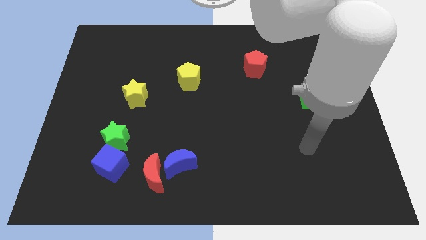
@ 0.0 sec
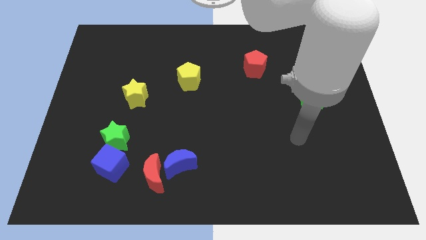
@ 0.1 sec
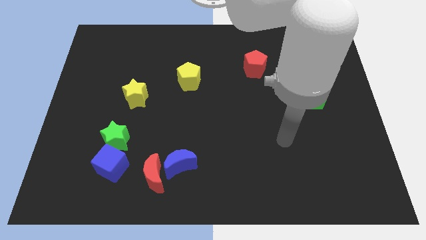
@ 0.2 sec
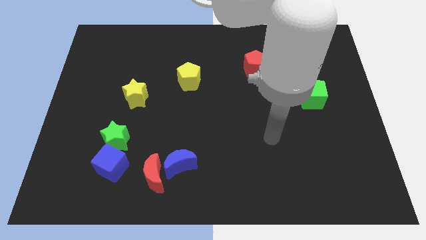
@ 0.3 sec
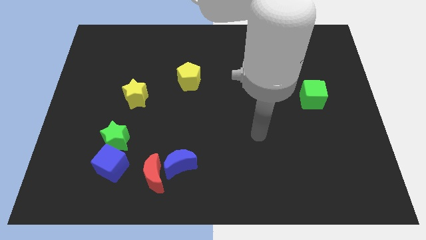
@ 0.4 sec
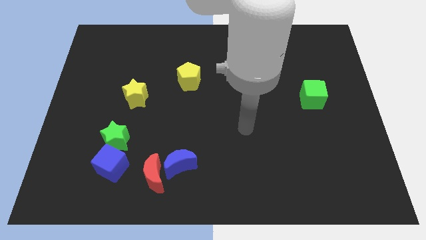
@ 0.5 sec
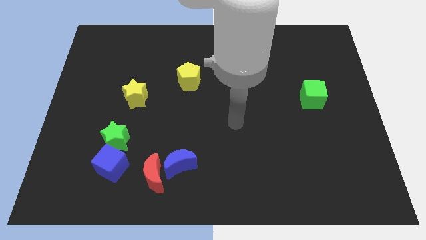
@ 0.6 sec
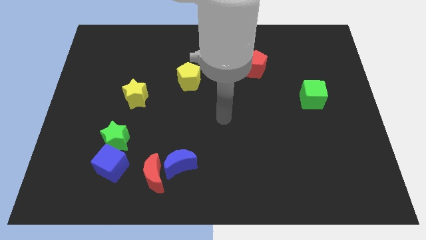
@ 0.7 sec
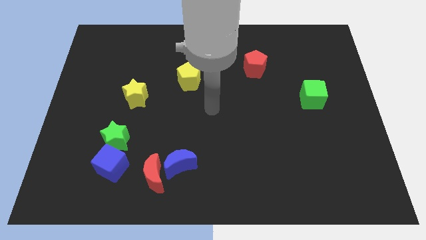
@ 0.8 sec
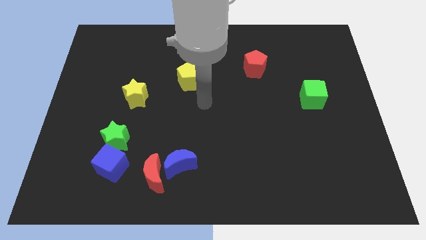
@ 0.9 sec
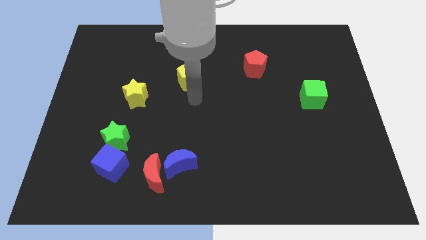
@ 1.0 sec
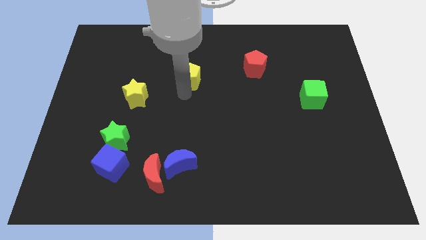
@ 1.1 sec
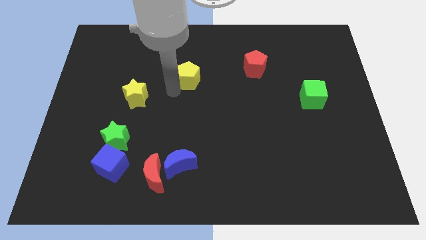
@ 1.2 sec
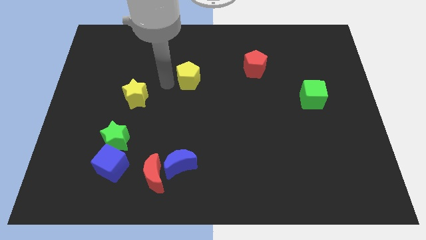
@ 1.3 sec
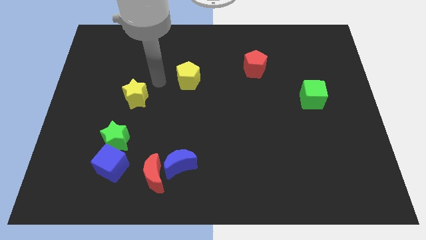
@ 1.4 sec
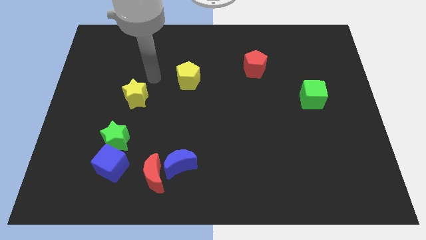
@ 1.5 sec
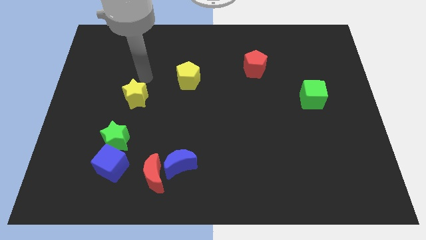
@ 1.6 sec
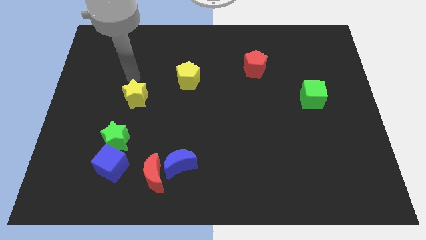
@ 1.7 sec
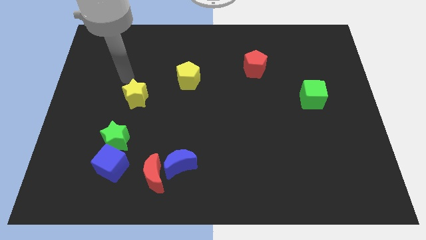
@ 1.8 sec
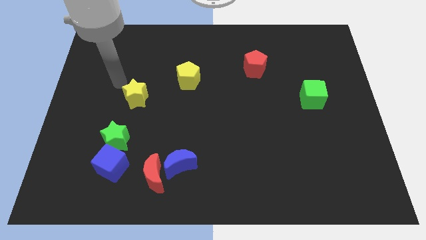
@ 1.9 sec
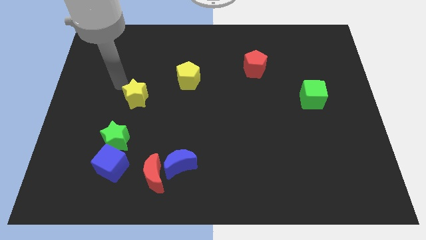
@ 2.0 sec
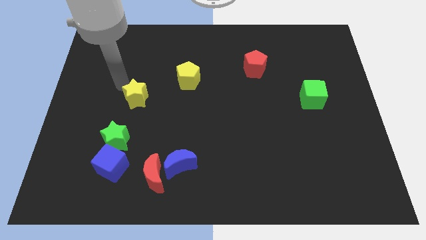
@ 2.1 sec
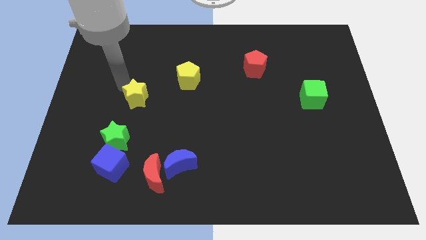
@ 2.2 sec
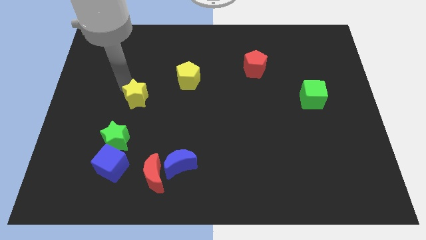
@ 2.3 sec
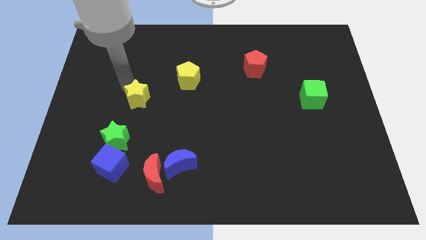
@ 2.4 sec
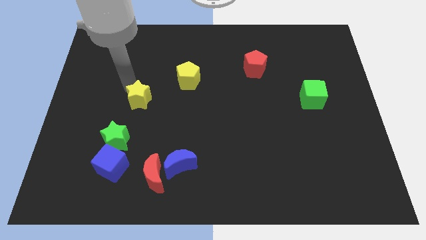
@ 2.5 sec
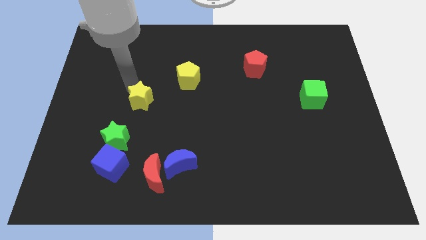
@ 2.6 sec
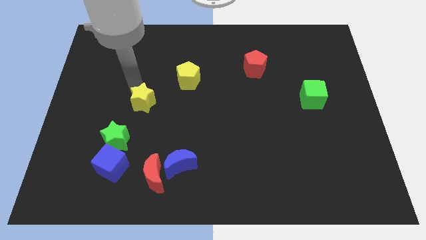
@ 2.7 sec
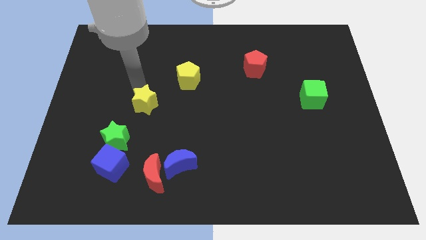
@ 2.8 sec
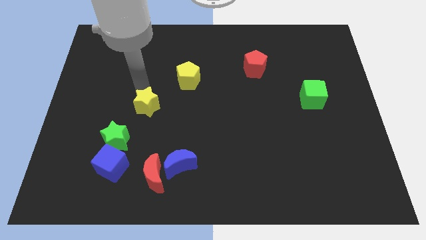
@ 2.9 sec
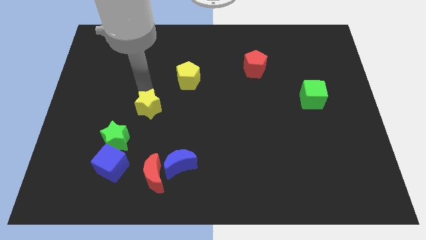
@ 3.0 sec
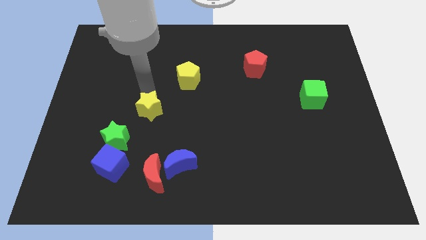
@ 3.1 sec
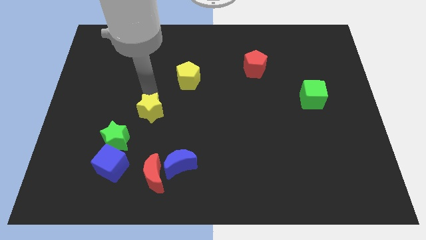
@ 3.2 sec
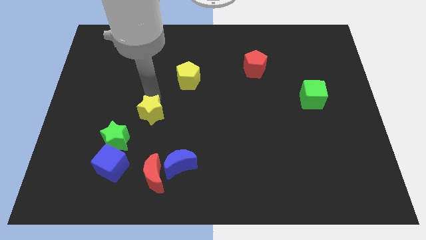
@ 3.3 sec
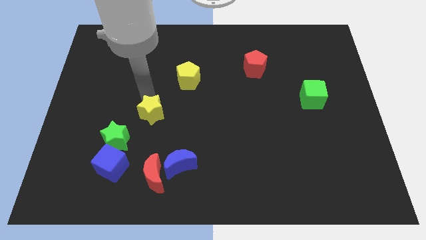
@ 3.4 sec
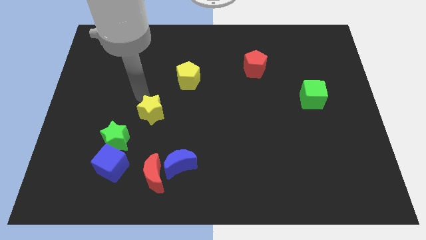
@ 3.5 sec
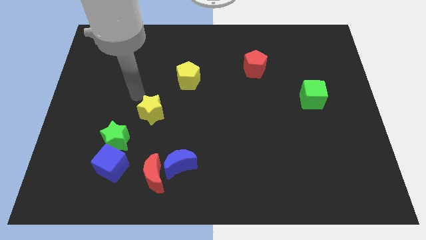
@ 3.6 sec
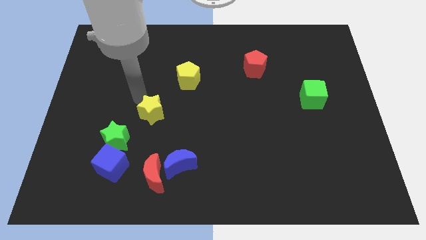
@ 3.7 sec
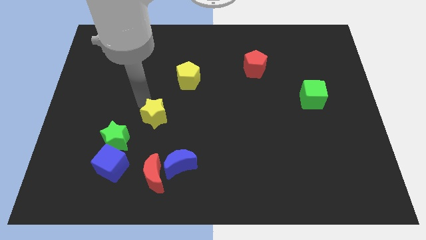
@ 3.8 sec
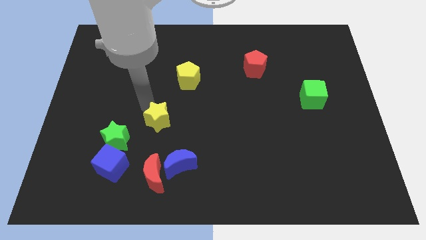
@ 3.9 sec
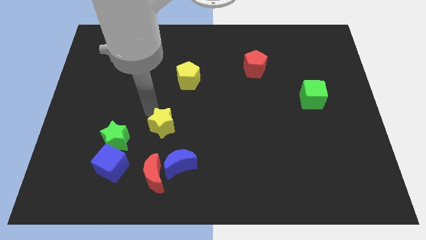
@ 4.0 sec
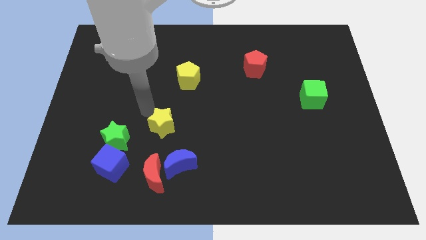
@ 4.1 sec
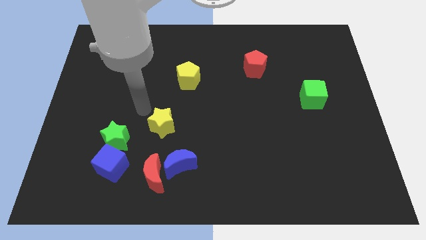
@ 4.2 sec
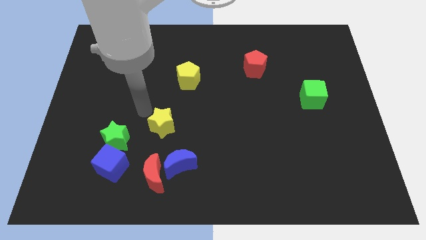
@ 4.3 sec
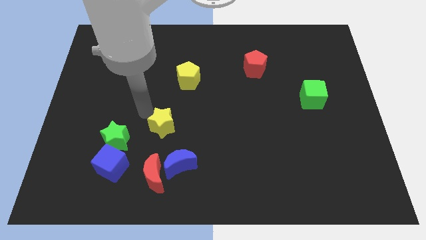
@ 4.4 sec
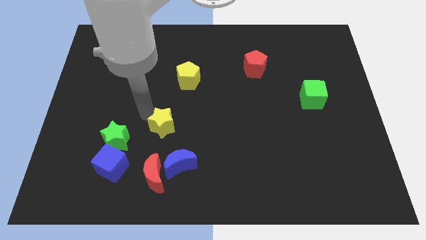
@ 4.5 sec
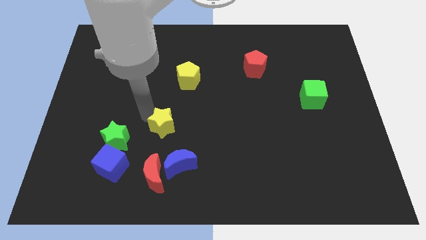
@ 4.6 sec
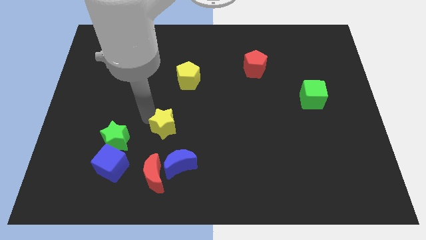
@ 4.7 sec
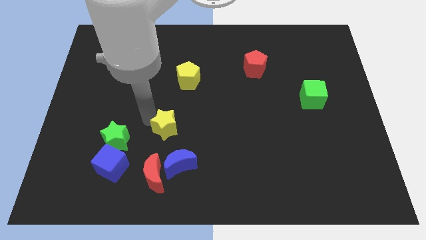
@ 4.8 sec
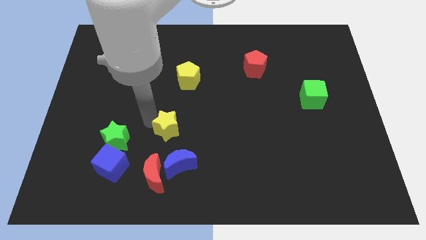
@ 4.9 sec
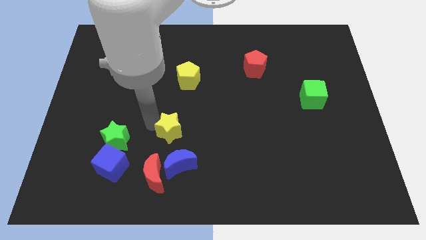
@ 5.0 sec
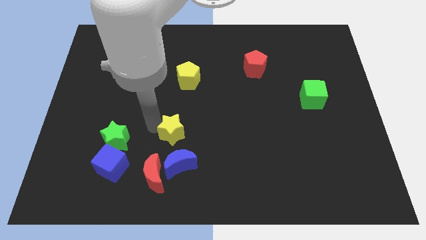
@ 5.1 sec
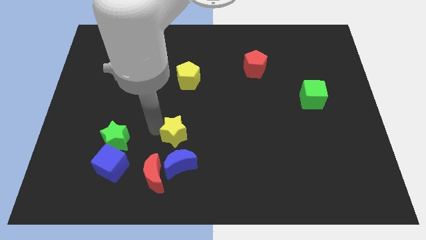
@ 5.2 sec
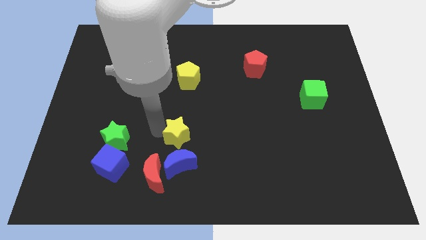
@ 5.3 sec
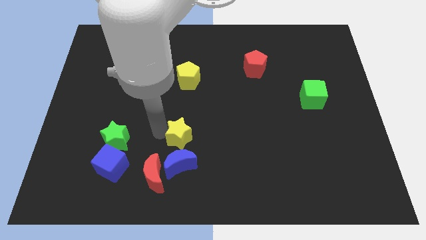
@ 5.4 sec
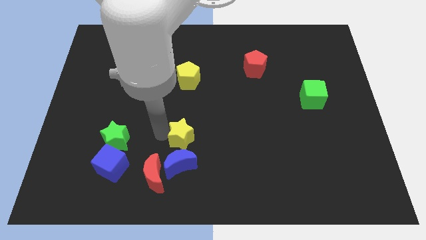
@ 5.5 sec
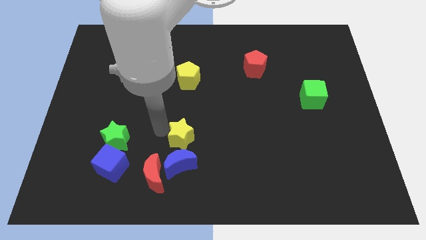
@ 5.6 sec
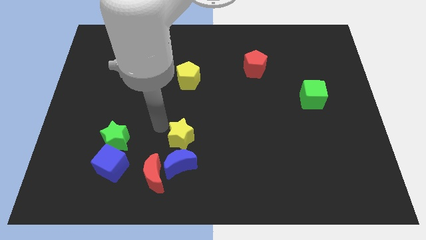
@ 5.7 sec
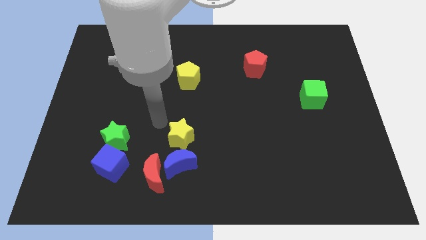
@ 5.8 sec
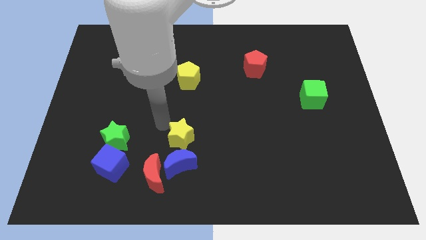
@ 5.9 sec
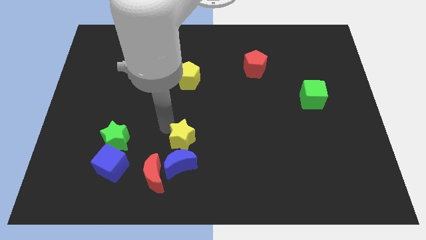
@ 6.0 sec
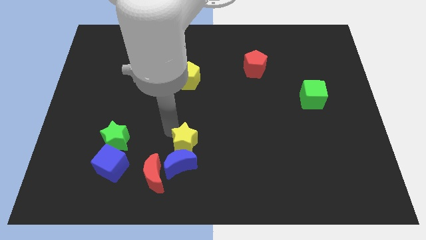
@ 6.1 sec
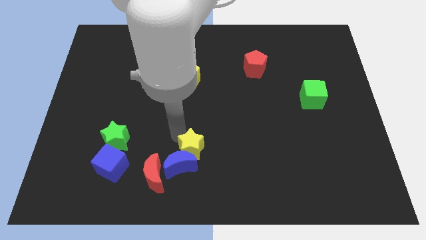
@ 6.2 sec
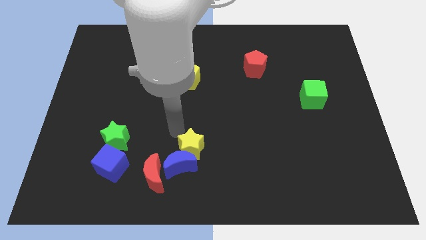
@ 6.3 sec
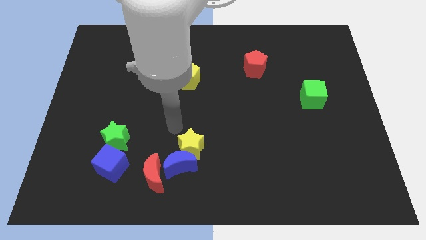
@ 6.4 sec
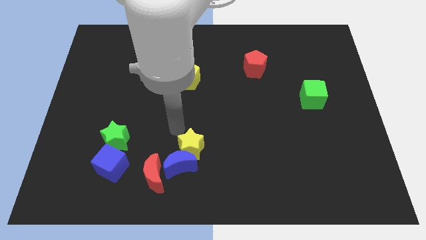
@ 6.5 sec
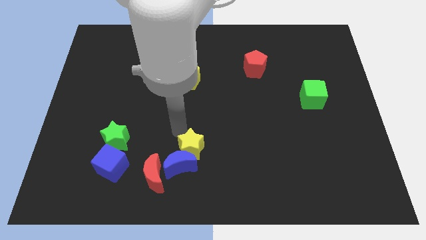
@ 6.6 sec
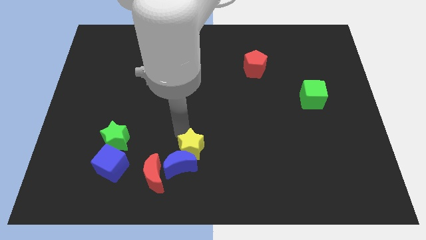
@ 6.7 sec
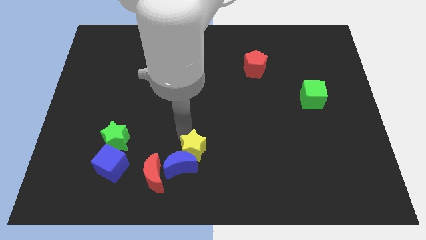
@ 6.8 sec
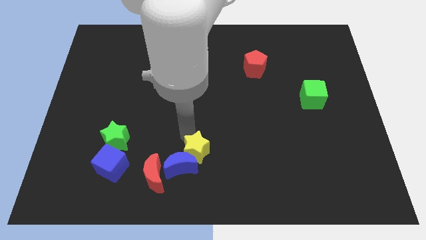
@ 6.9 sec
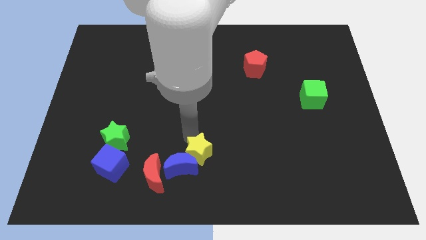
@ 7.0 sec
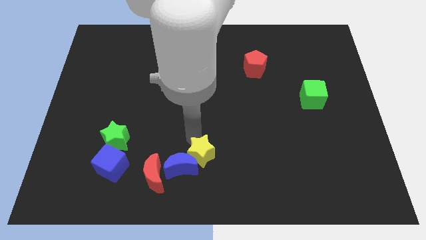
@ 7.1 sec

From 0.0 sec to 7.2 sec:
slide the yellow star to the bottom
